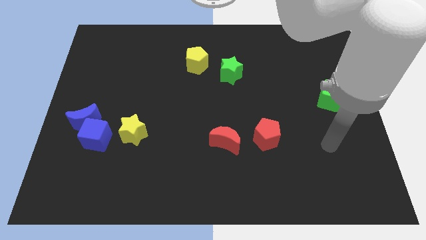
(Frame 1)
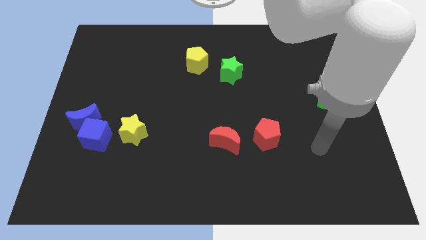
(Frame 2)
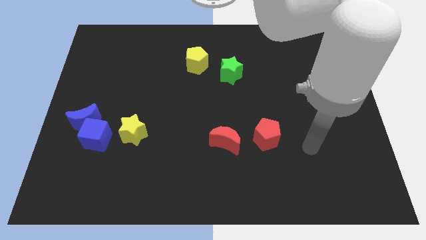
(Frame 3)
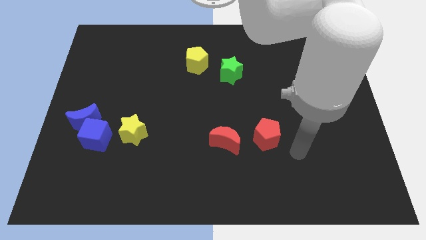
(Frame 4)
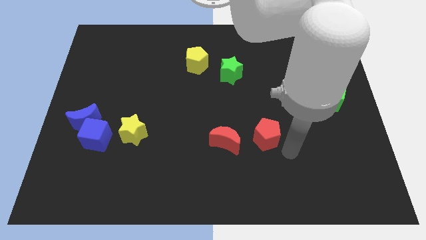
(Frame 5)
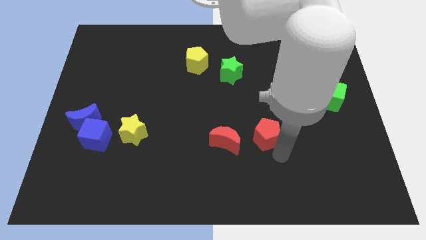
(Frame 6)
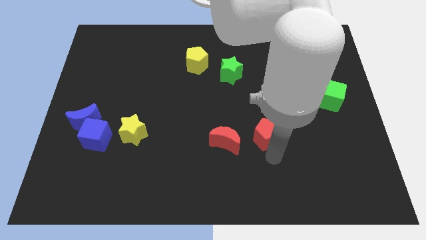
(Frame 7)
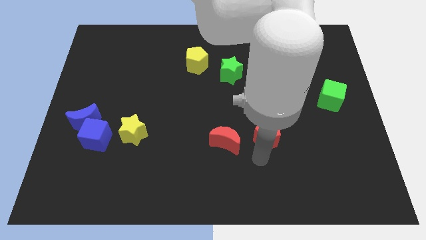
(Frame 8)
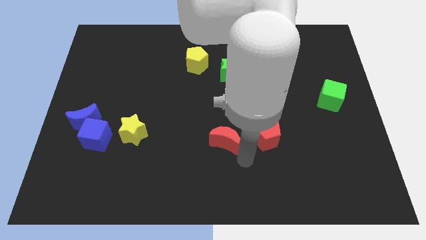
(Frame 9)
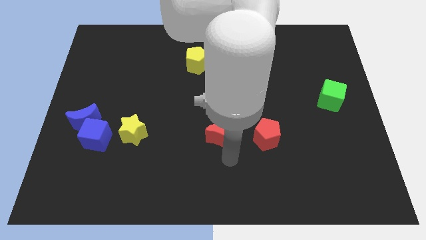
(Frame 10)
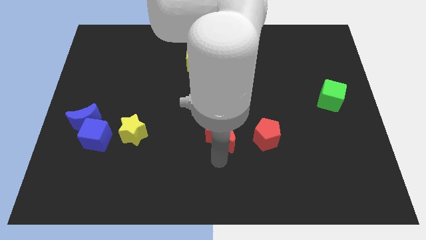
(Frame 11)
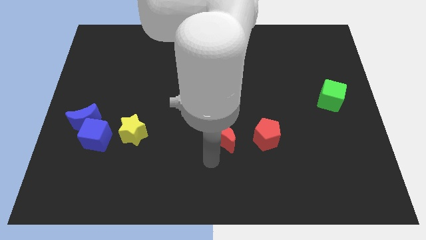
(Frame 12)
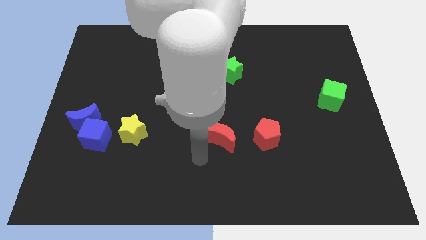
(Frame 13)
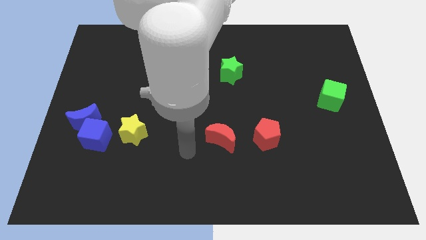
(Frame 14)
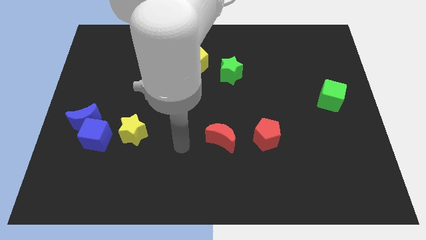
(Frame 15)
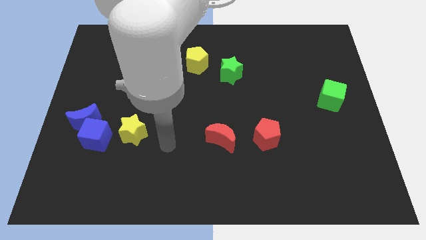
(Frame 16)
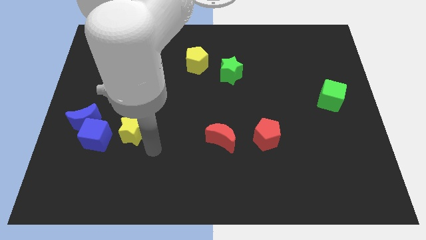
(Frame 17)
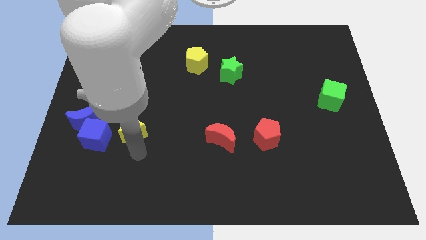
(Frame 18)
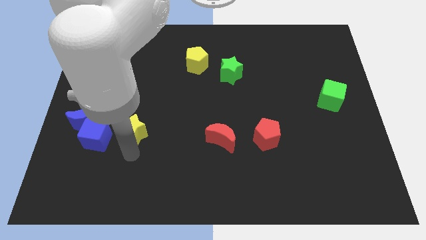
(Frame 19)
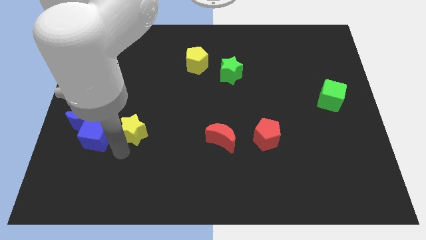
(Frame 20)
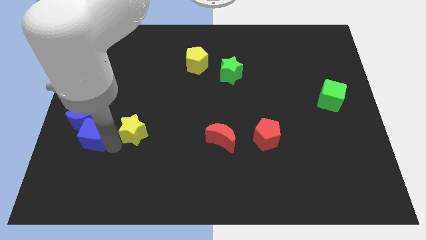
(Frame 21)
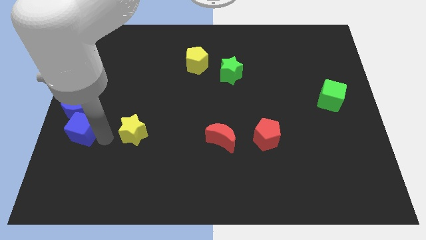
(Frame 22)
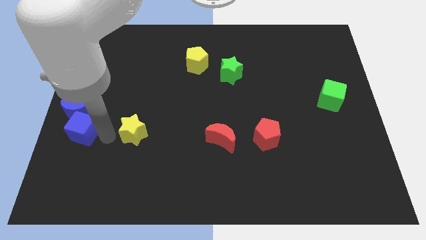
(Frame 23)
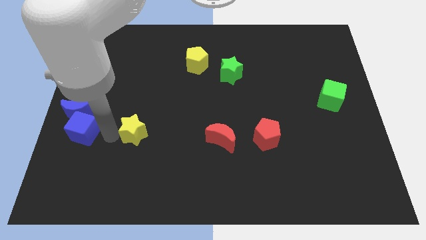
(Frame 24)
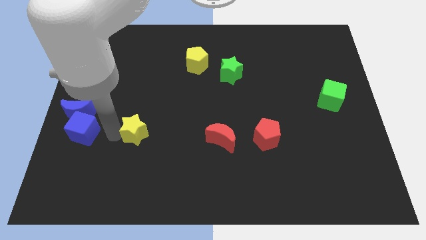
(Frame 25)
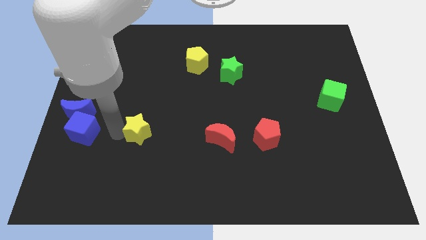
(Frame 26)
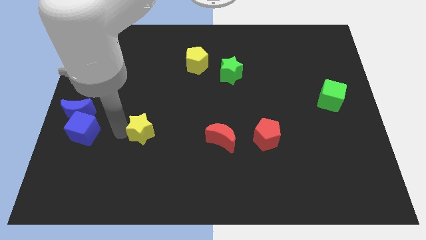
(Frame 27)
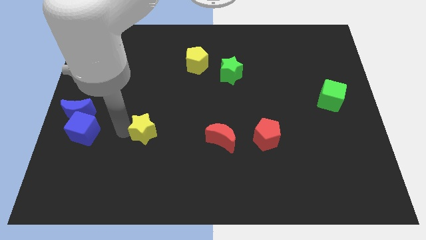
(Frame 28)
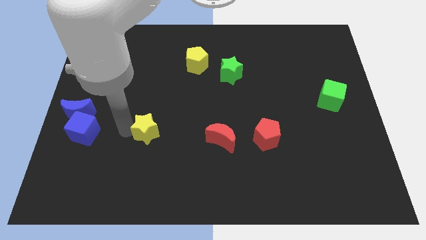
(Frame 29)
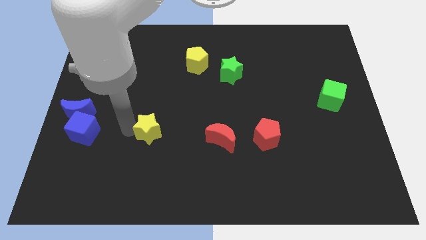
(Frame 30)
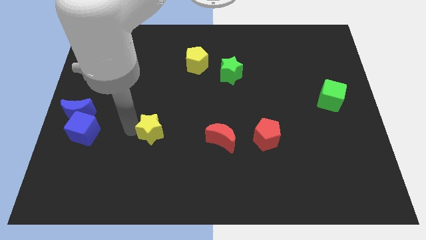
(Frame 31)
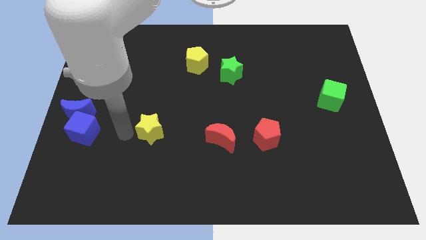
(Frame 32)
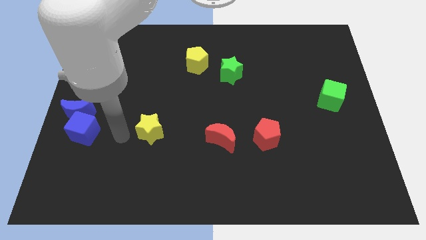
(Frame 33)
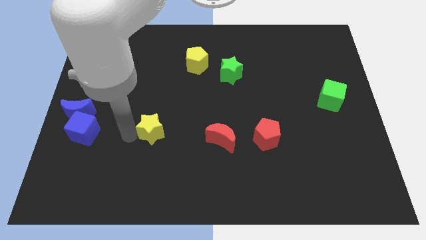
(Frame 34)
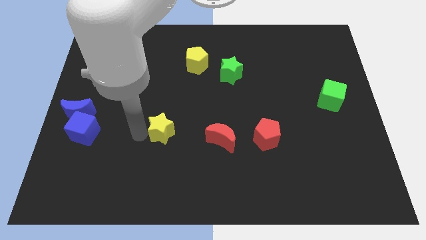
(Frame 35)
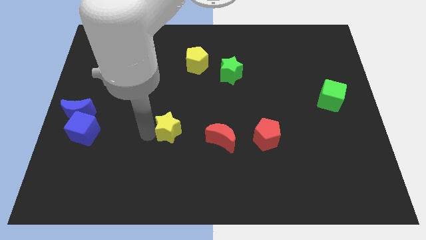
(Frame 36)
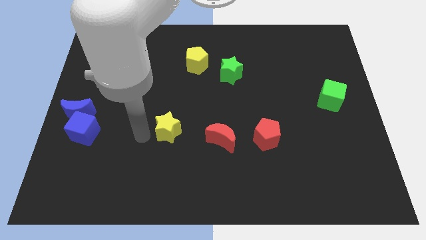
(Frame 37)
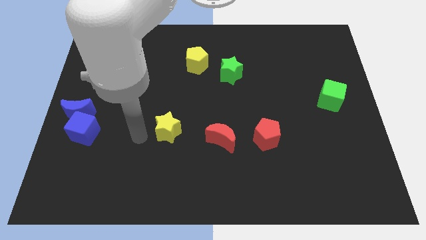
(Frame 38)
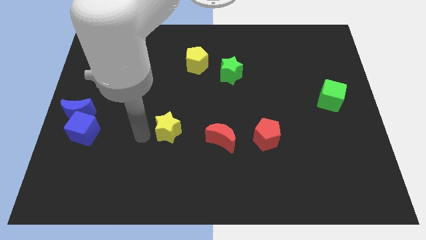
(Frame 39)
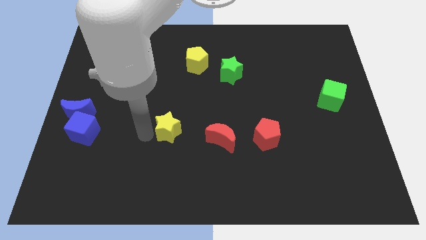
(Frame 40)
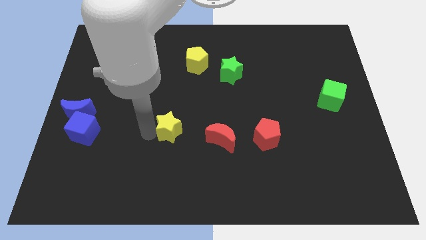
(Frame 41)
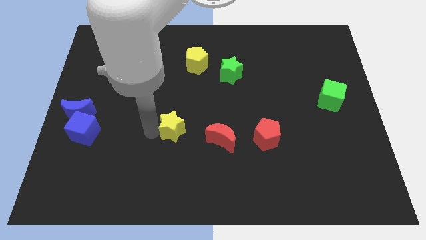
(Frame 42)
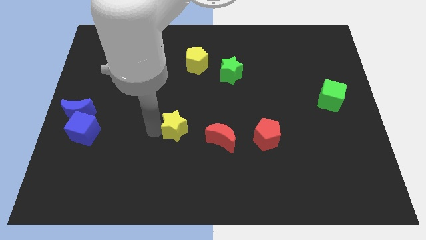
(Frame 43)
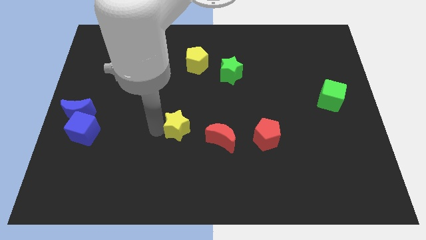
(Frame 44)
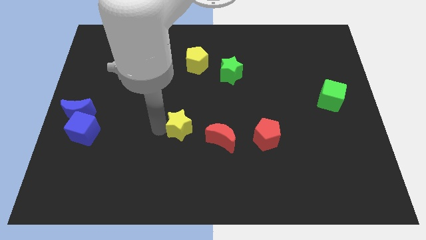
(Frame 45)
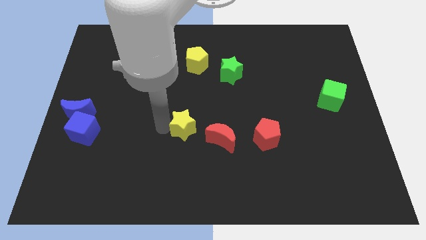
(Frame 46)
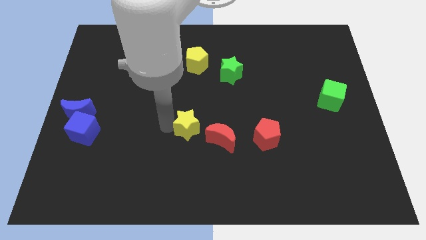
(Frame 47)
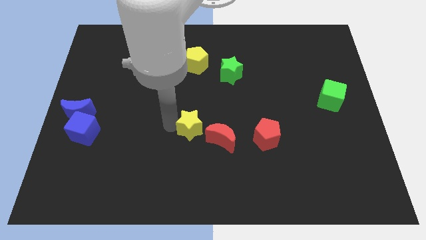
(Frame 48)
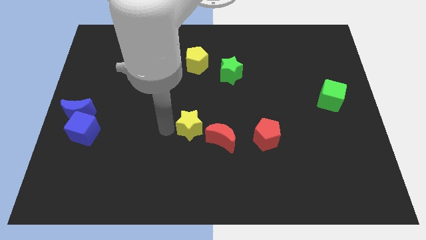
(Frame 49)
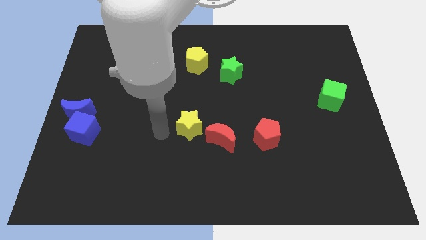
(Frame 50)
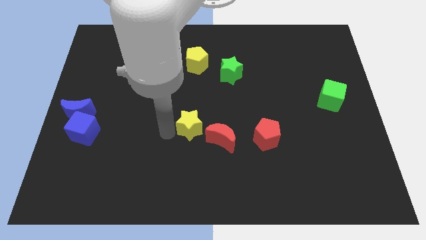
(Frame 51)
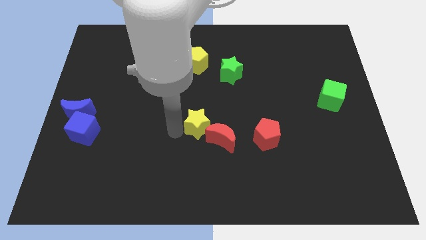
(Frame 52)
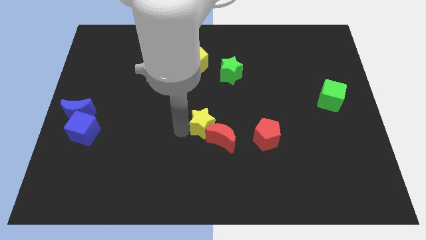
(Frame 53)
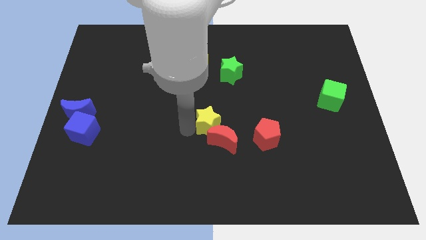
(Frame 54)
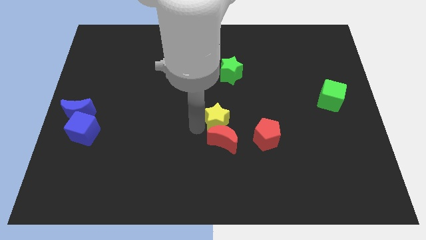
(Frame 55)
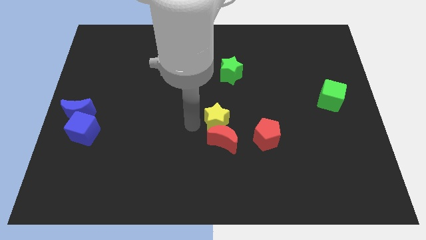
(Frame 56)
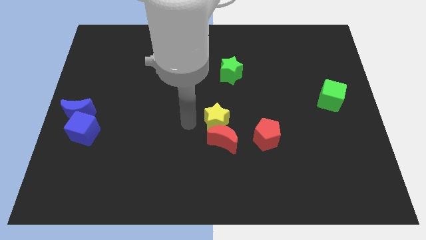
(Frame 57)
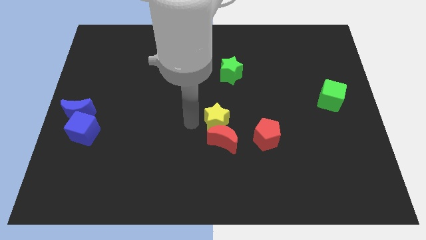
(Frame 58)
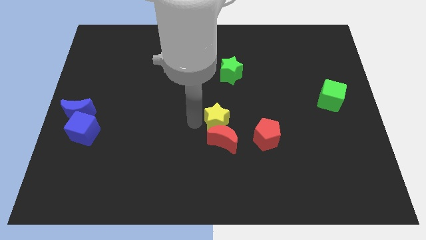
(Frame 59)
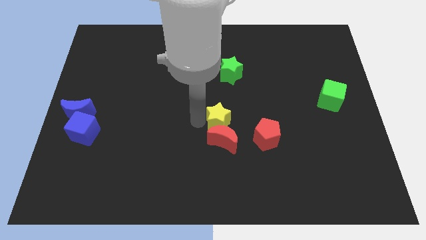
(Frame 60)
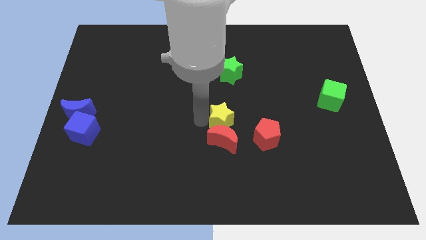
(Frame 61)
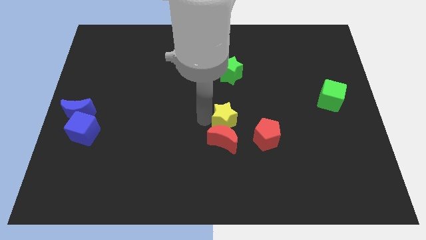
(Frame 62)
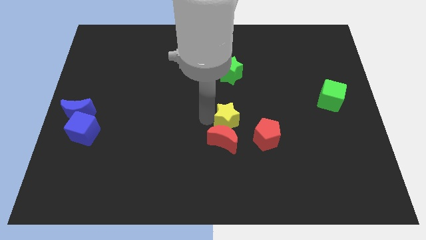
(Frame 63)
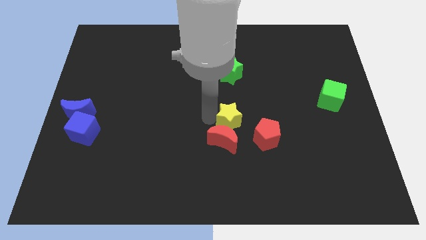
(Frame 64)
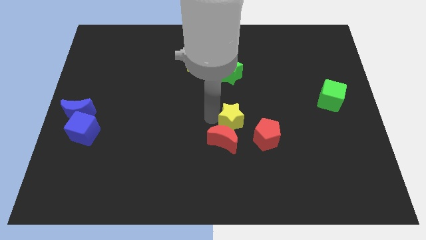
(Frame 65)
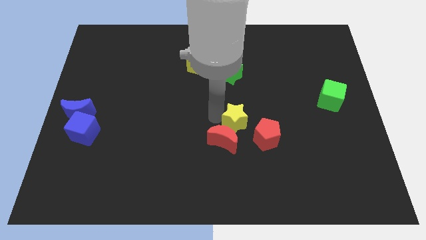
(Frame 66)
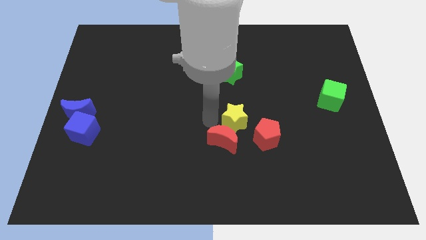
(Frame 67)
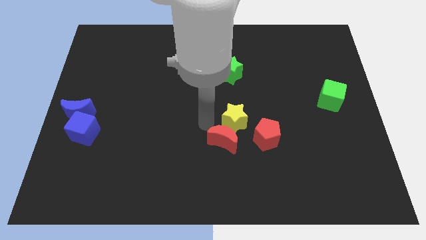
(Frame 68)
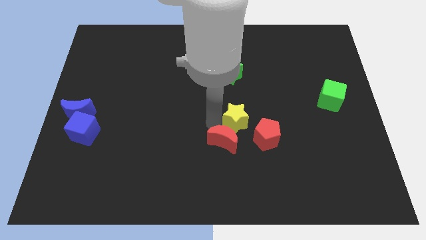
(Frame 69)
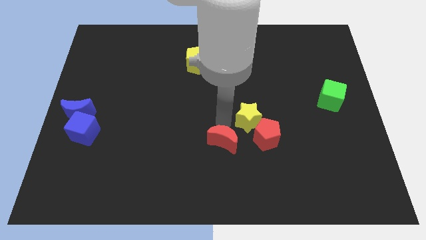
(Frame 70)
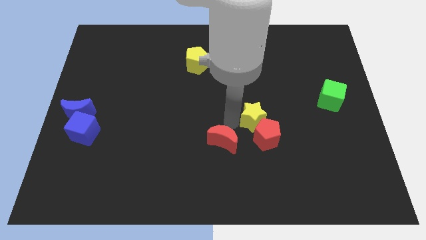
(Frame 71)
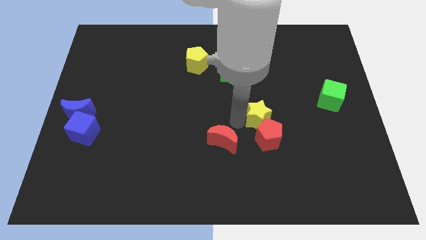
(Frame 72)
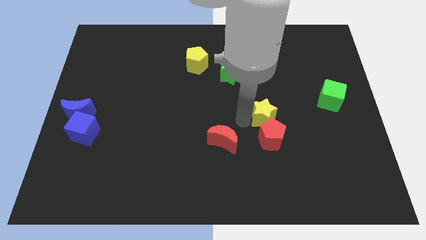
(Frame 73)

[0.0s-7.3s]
put the yellow star diagonally up and to the right of the red pentagon
